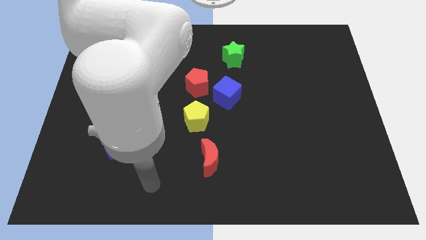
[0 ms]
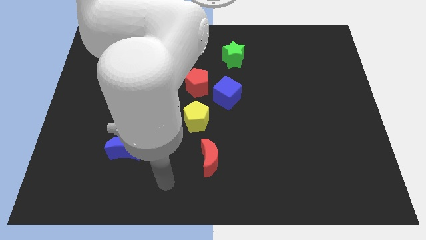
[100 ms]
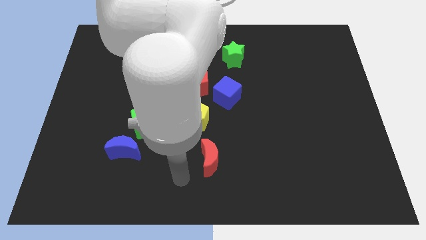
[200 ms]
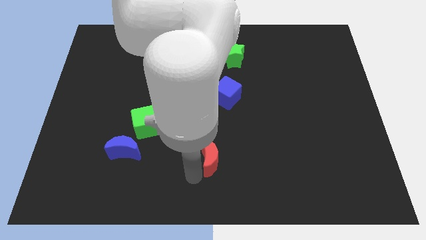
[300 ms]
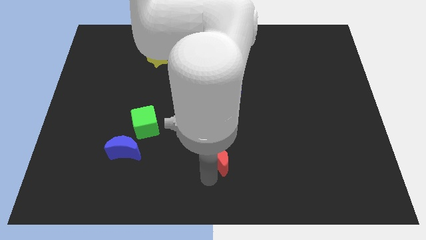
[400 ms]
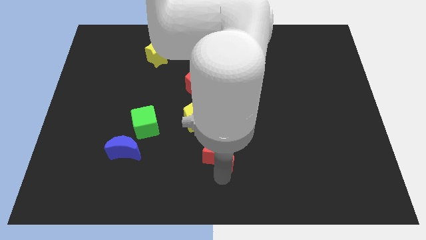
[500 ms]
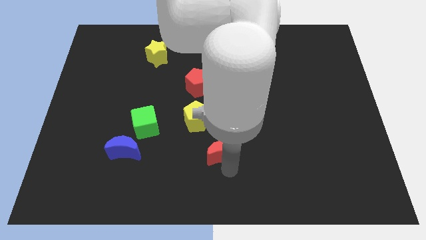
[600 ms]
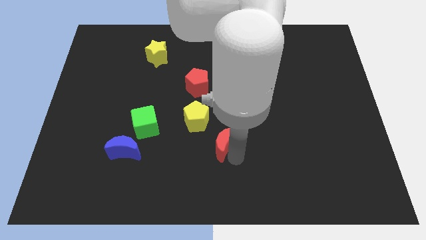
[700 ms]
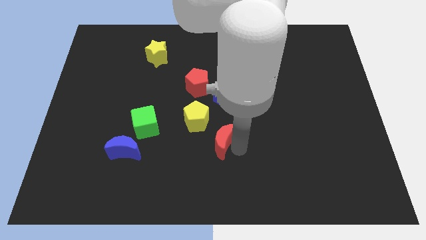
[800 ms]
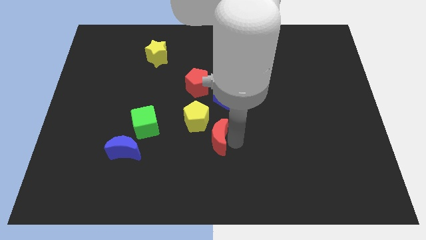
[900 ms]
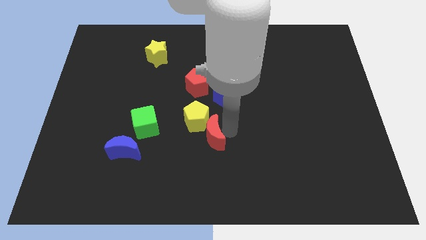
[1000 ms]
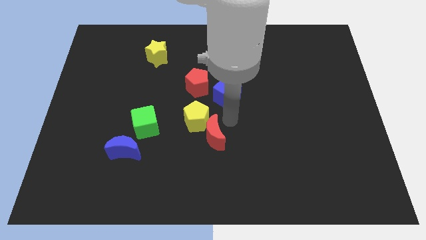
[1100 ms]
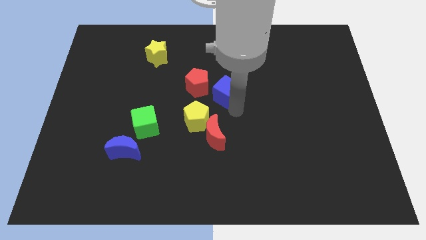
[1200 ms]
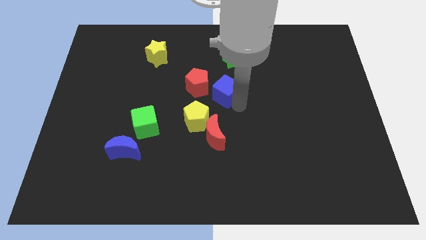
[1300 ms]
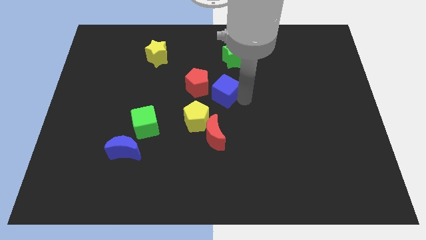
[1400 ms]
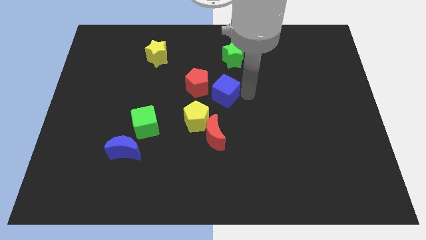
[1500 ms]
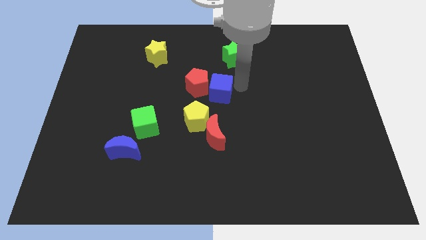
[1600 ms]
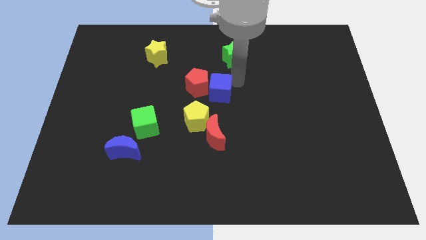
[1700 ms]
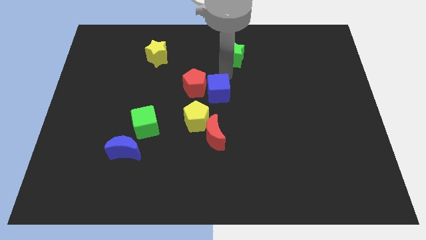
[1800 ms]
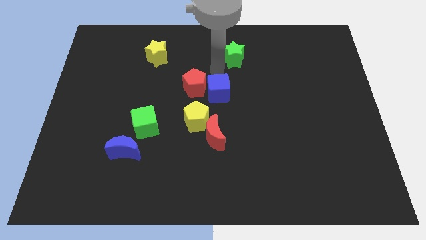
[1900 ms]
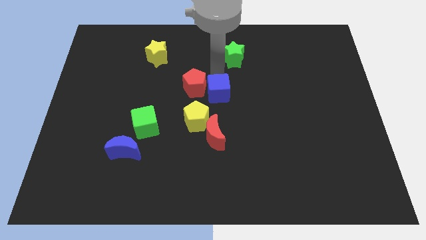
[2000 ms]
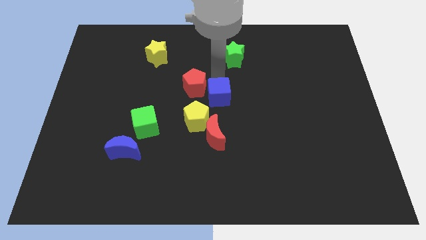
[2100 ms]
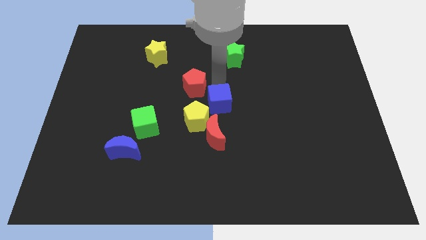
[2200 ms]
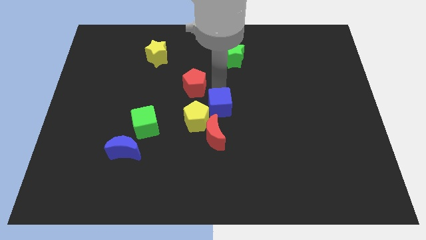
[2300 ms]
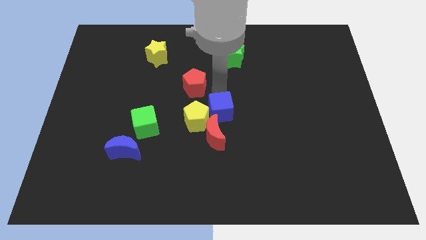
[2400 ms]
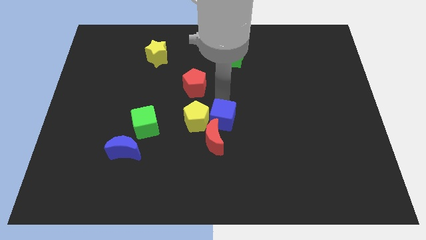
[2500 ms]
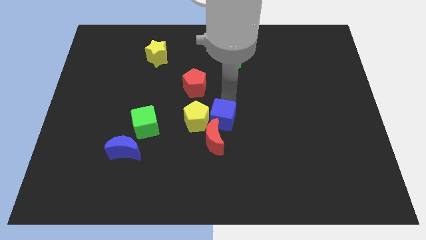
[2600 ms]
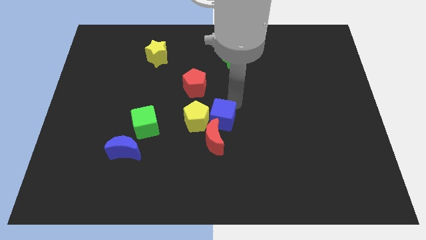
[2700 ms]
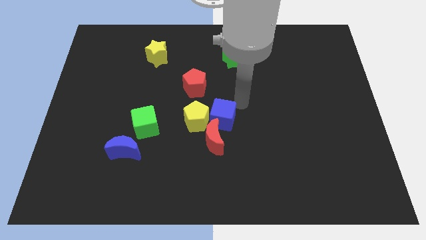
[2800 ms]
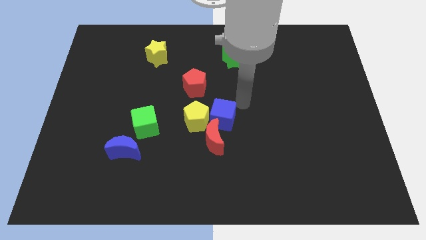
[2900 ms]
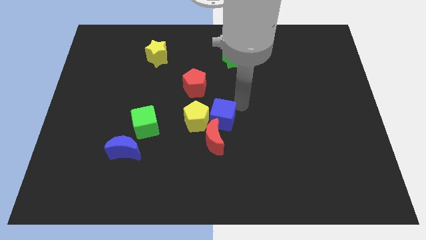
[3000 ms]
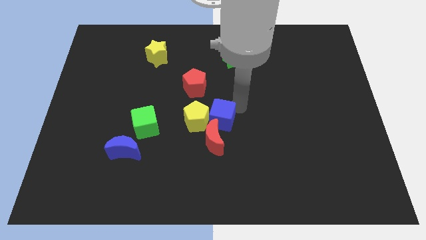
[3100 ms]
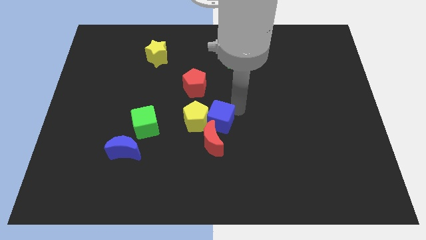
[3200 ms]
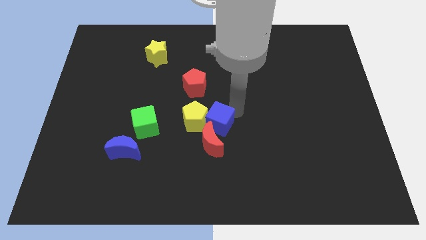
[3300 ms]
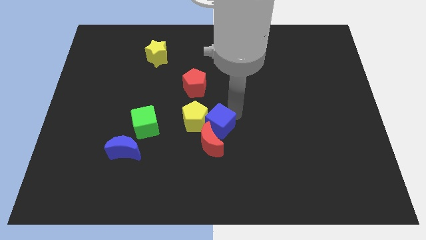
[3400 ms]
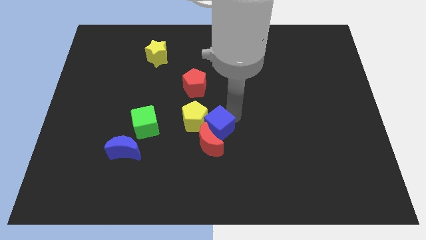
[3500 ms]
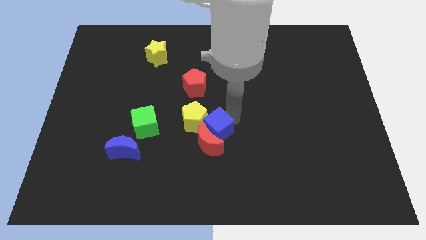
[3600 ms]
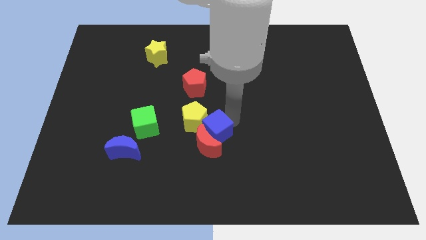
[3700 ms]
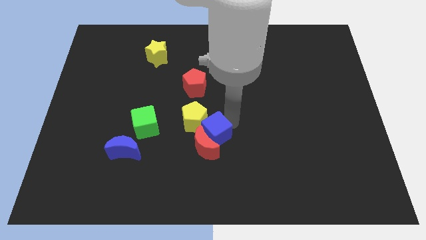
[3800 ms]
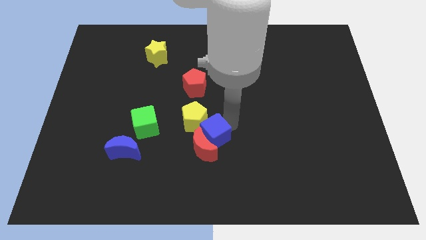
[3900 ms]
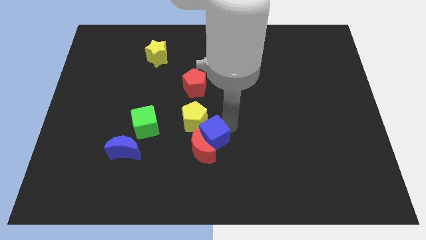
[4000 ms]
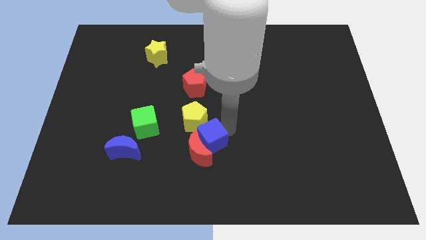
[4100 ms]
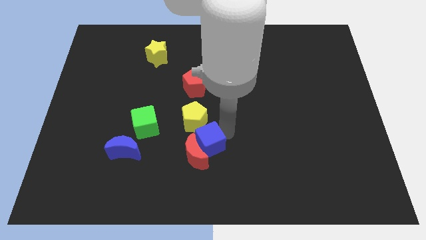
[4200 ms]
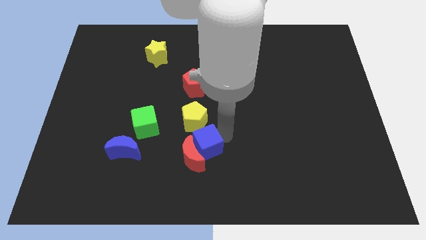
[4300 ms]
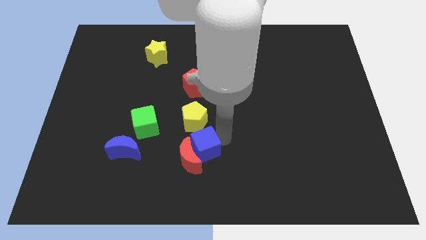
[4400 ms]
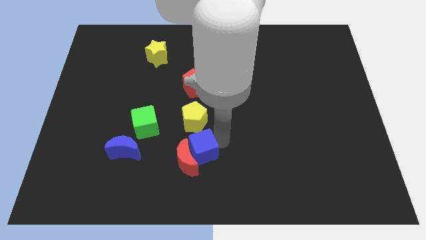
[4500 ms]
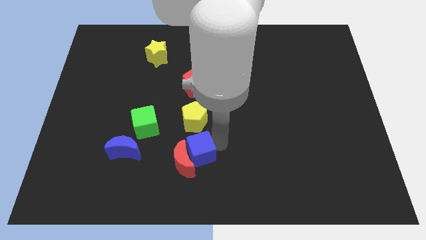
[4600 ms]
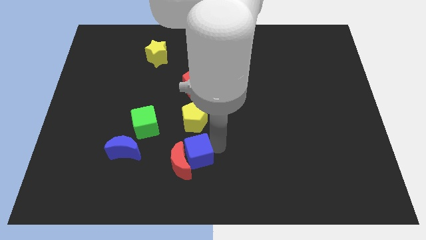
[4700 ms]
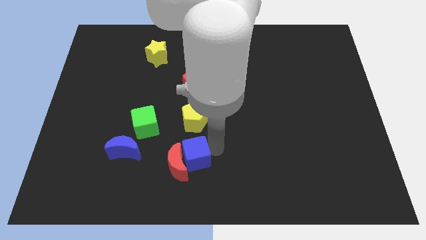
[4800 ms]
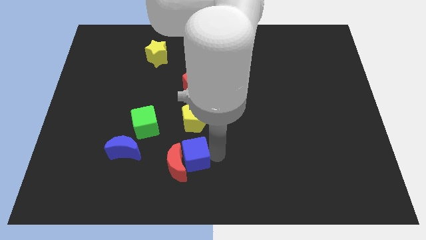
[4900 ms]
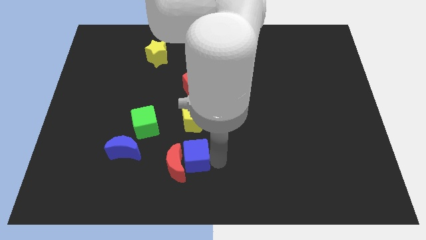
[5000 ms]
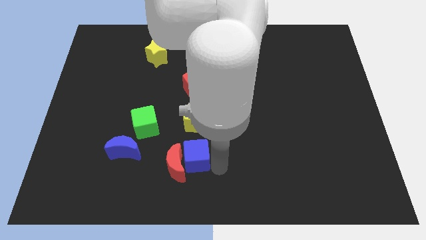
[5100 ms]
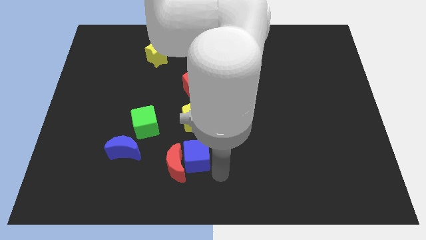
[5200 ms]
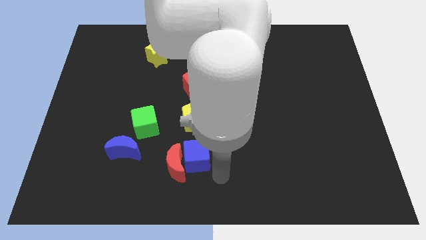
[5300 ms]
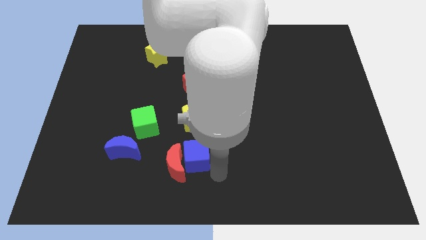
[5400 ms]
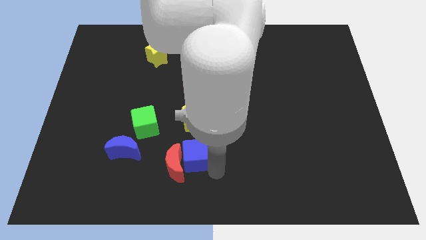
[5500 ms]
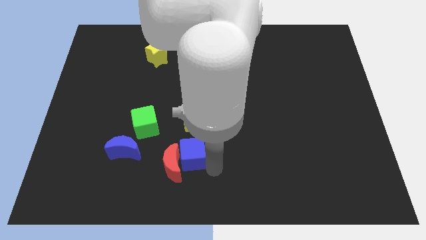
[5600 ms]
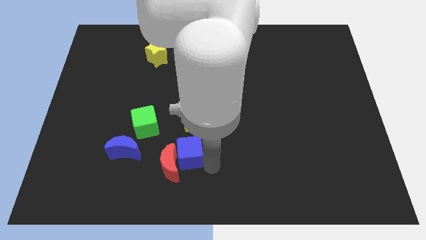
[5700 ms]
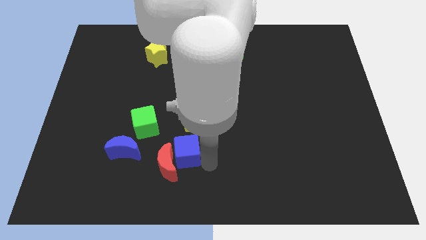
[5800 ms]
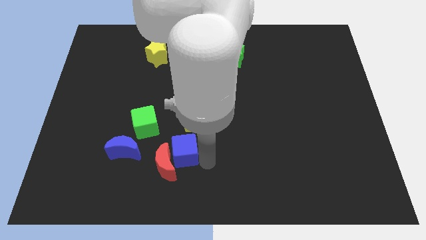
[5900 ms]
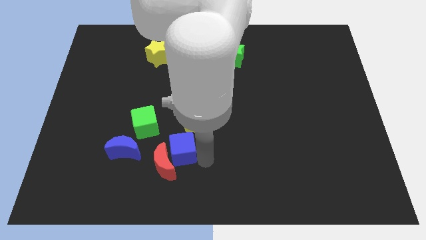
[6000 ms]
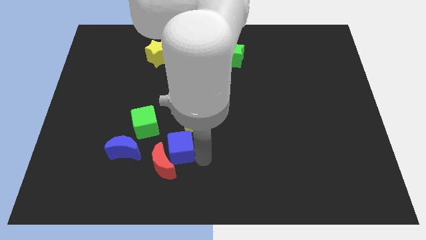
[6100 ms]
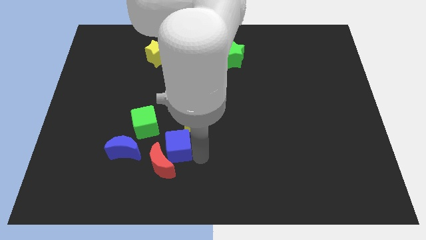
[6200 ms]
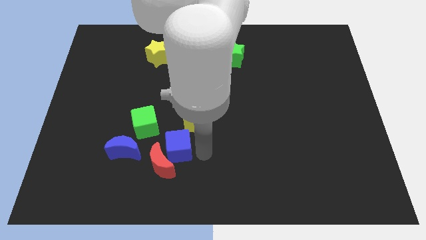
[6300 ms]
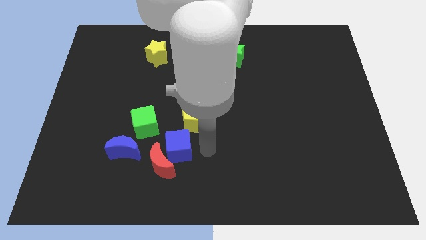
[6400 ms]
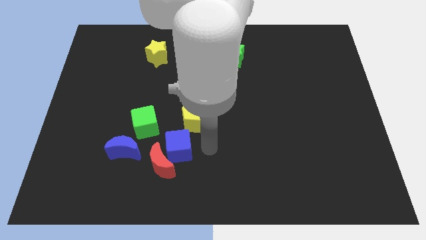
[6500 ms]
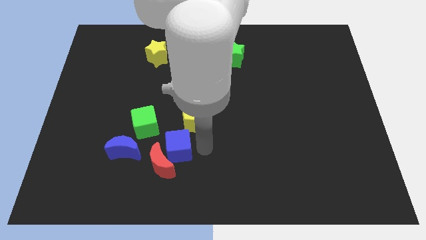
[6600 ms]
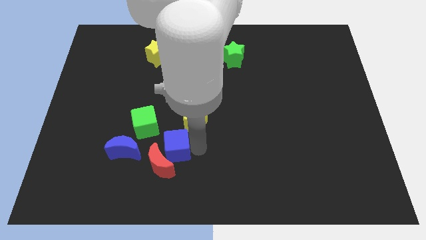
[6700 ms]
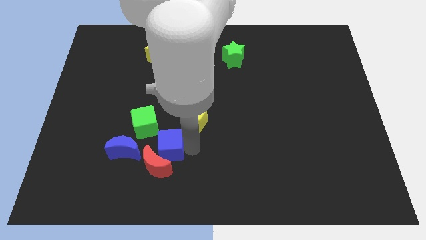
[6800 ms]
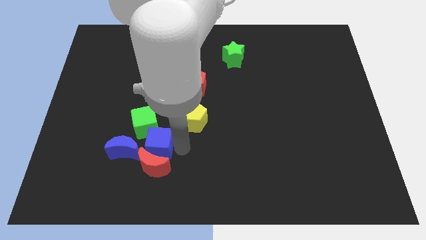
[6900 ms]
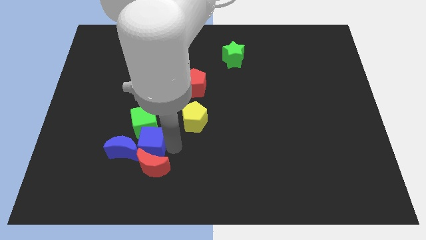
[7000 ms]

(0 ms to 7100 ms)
push the blue cube close to the blue moon
